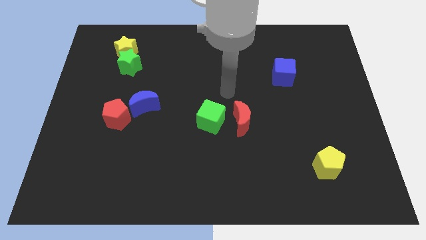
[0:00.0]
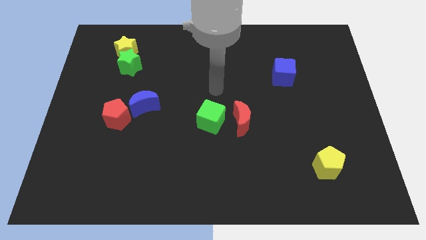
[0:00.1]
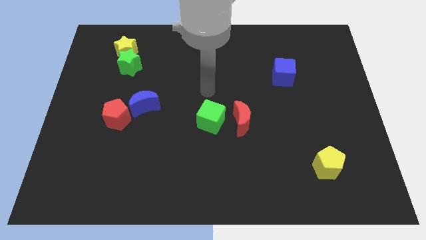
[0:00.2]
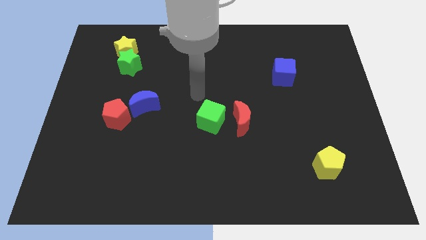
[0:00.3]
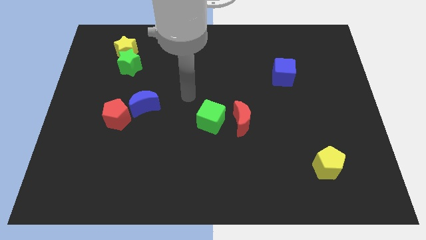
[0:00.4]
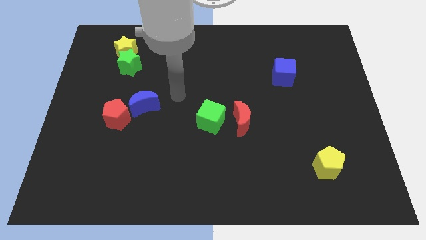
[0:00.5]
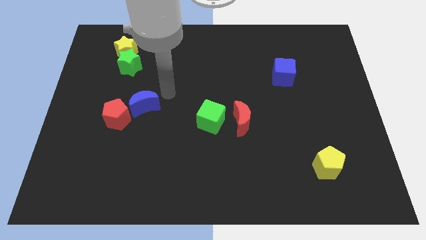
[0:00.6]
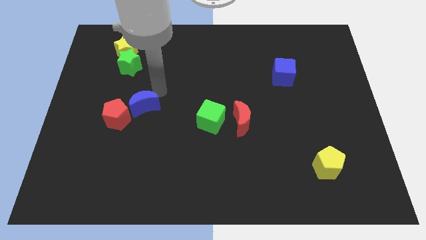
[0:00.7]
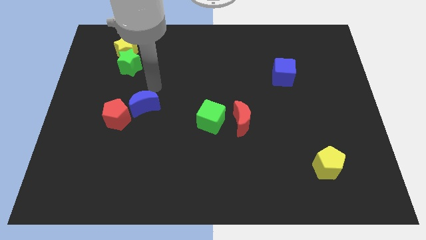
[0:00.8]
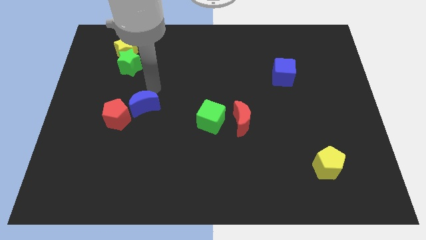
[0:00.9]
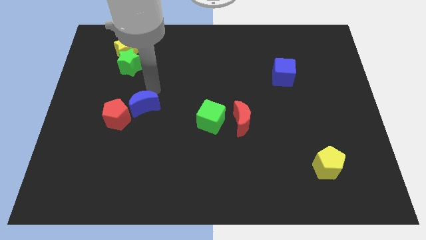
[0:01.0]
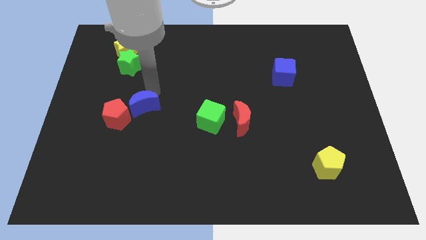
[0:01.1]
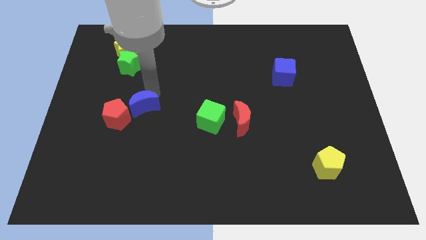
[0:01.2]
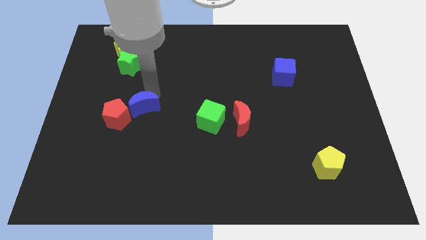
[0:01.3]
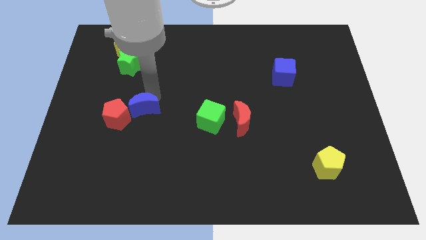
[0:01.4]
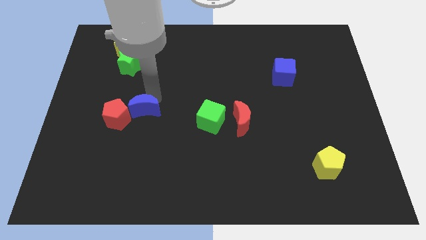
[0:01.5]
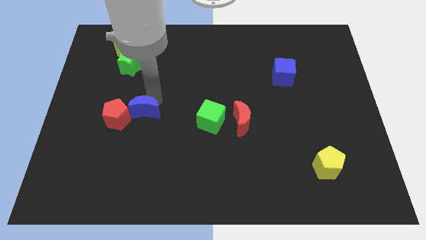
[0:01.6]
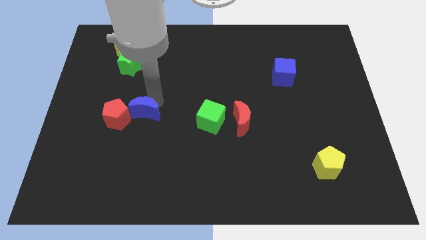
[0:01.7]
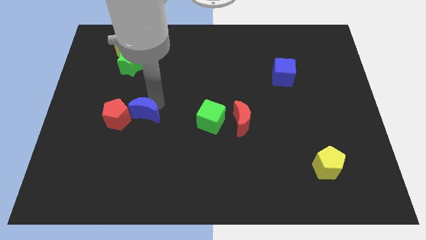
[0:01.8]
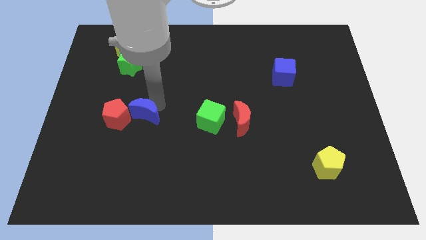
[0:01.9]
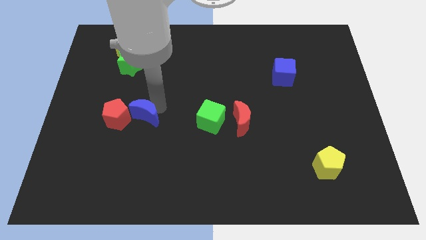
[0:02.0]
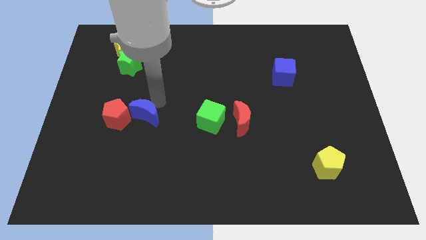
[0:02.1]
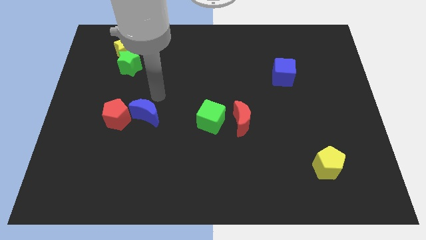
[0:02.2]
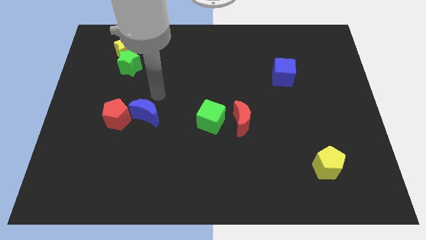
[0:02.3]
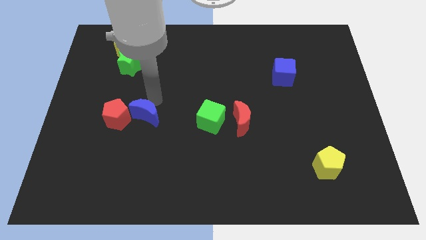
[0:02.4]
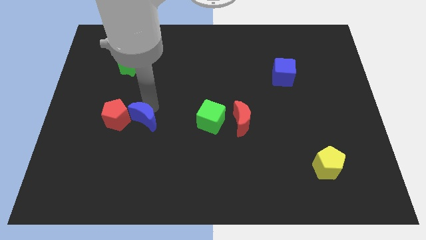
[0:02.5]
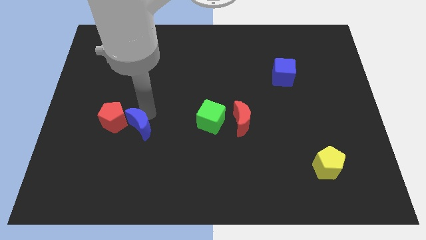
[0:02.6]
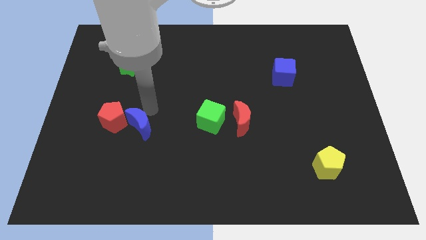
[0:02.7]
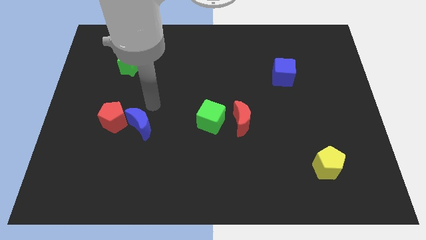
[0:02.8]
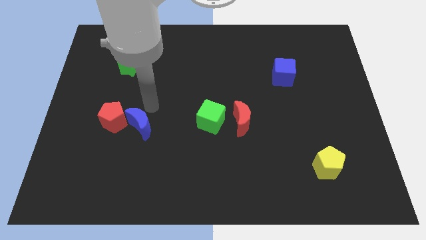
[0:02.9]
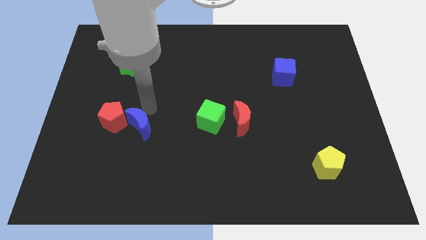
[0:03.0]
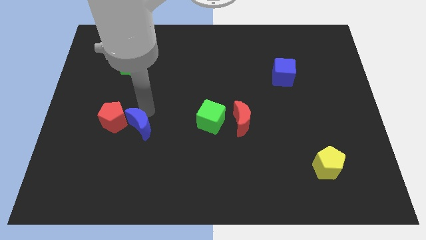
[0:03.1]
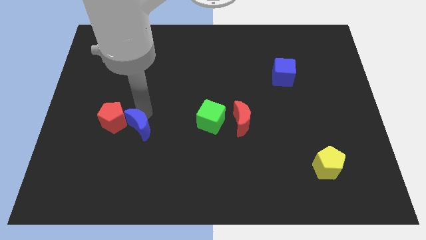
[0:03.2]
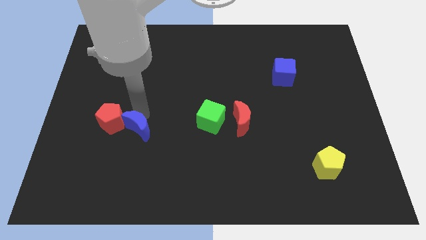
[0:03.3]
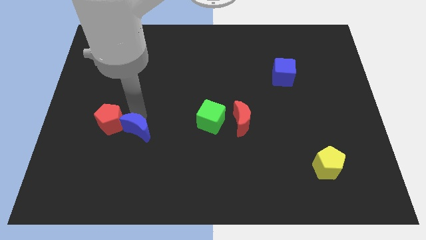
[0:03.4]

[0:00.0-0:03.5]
slide the blue moon downwards a little

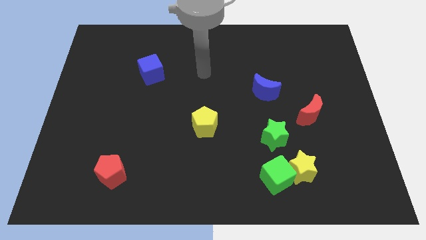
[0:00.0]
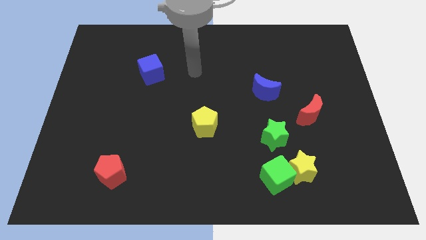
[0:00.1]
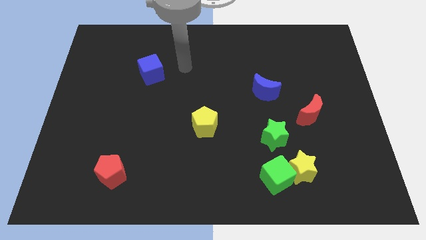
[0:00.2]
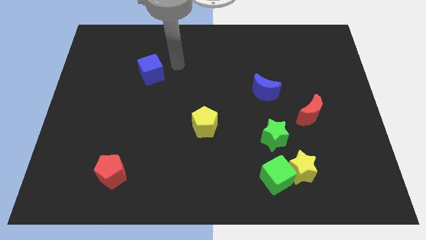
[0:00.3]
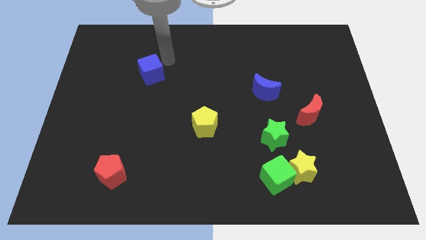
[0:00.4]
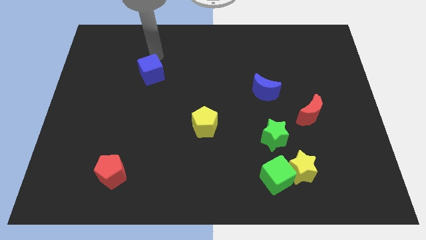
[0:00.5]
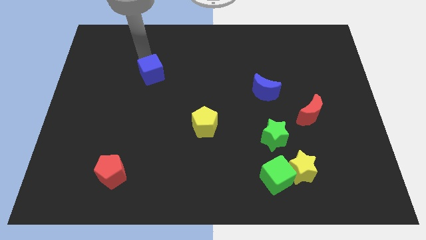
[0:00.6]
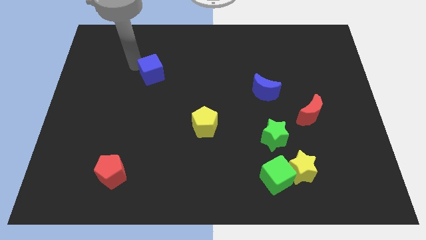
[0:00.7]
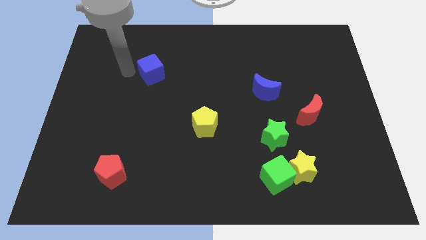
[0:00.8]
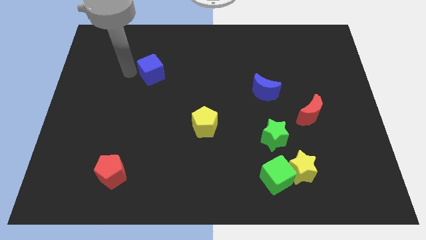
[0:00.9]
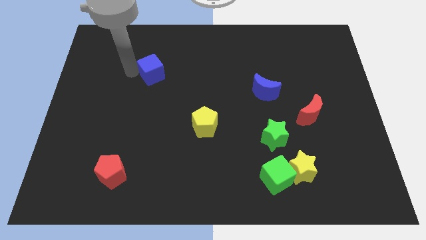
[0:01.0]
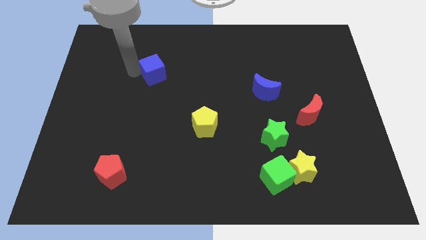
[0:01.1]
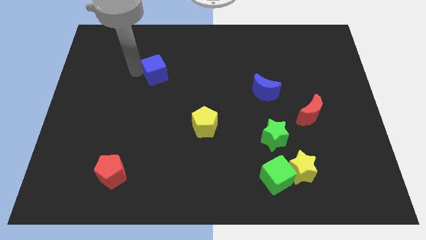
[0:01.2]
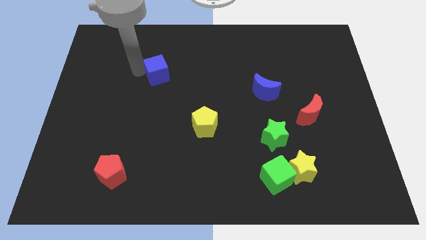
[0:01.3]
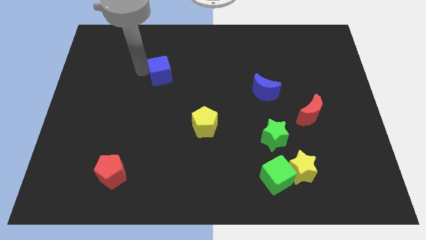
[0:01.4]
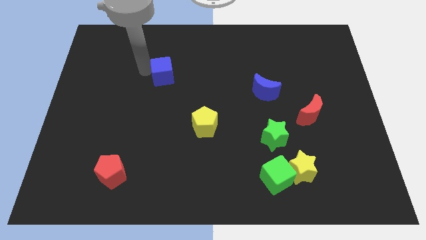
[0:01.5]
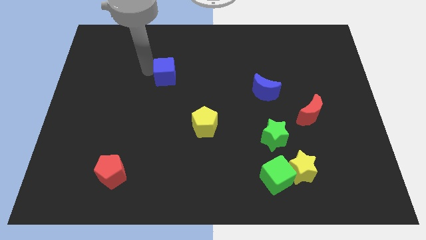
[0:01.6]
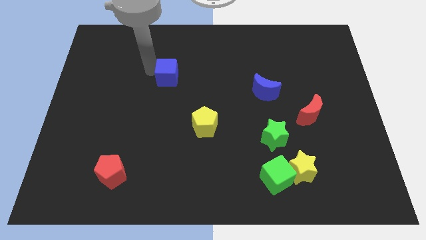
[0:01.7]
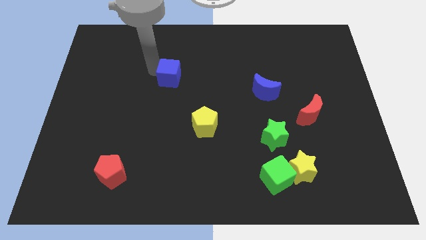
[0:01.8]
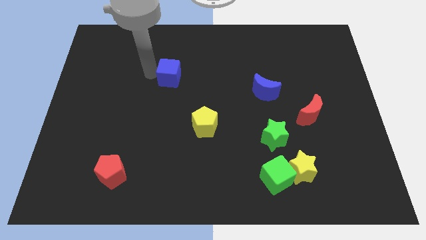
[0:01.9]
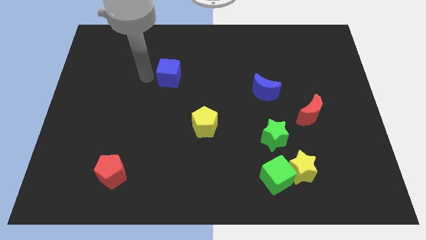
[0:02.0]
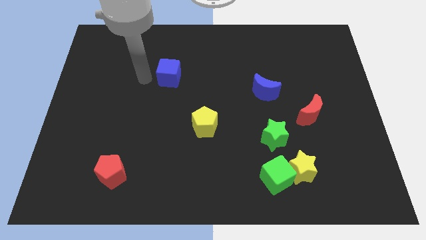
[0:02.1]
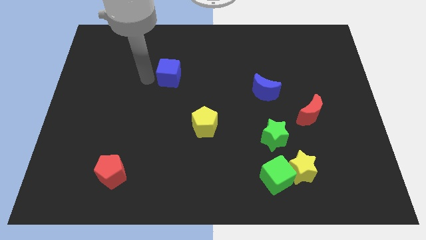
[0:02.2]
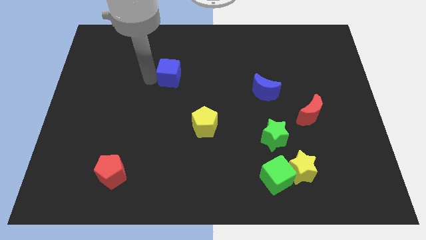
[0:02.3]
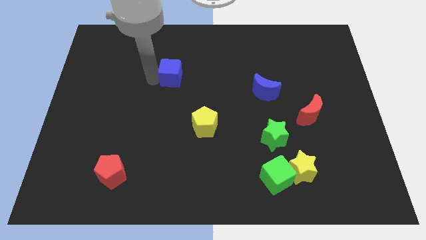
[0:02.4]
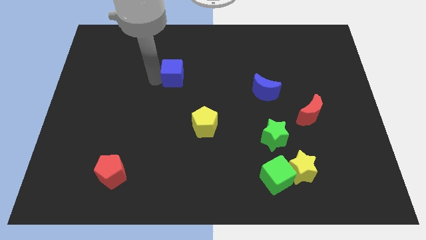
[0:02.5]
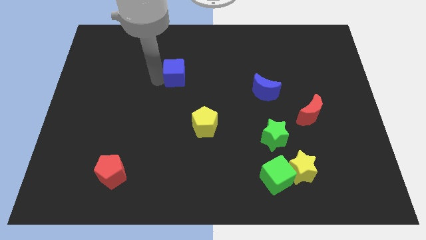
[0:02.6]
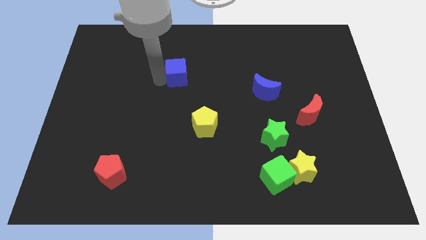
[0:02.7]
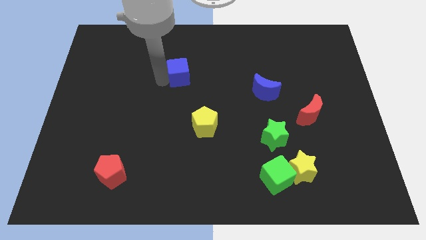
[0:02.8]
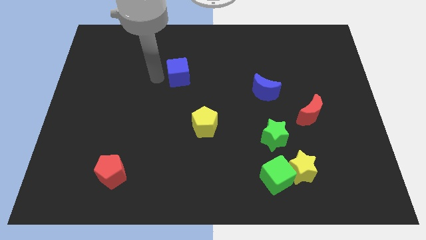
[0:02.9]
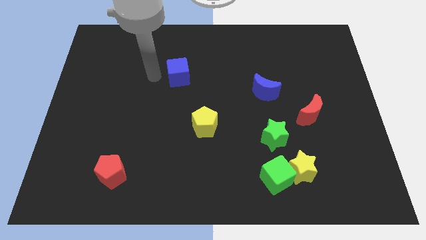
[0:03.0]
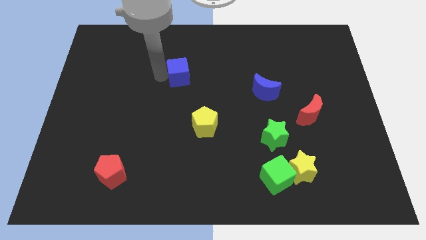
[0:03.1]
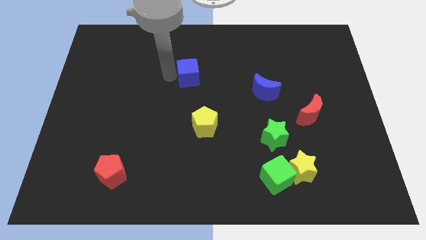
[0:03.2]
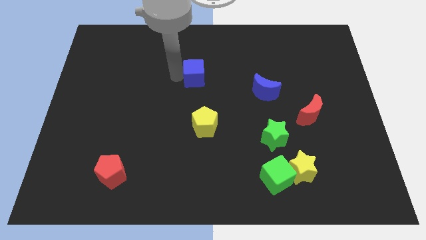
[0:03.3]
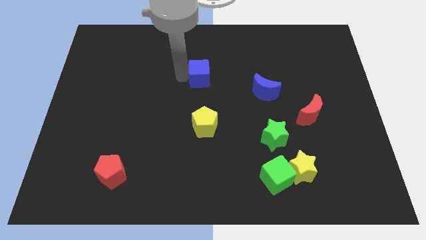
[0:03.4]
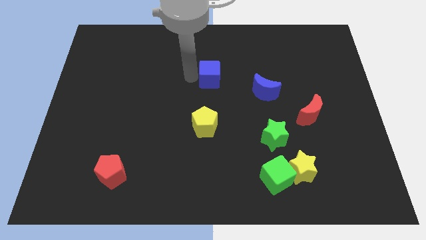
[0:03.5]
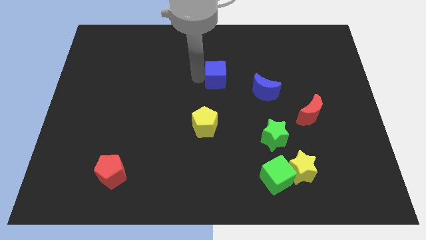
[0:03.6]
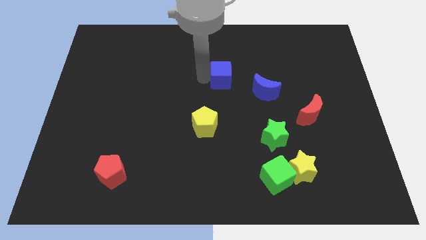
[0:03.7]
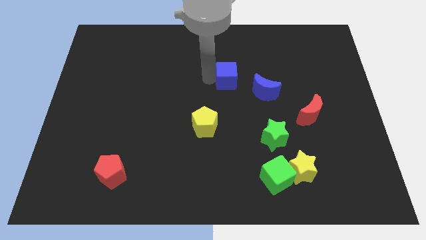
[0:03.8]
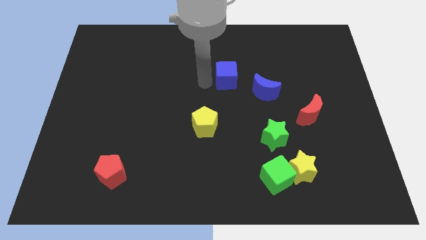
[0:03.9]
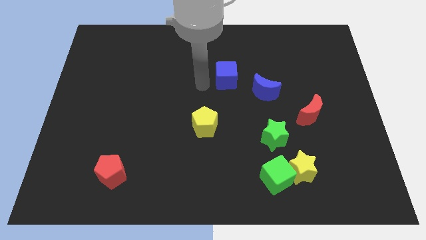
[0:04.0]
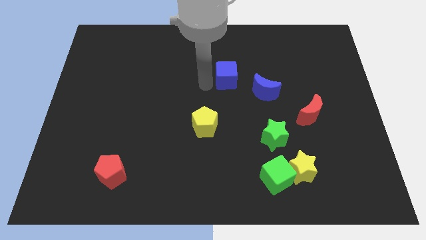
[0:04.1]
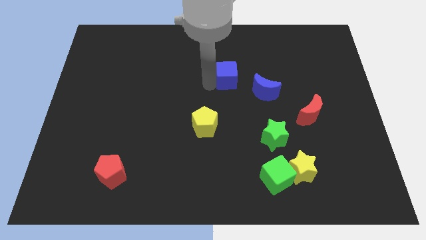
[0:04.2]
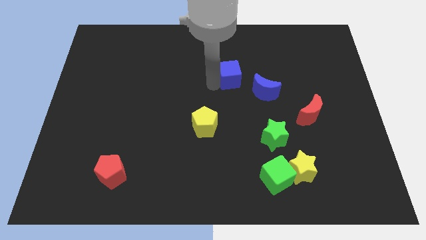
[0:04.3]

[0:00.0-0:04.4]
push the blue cube right
